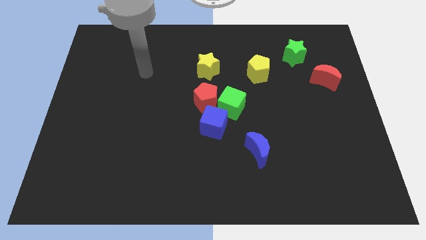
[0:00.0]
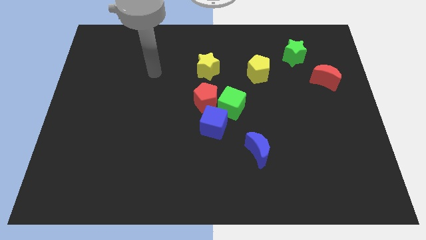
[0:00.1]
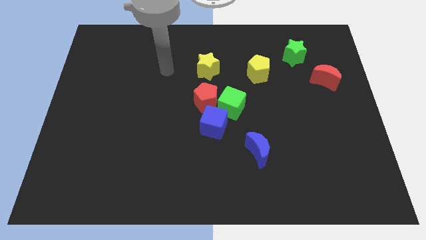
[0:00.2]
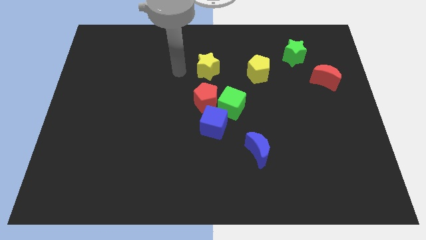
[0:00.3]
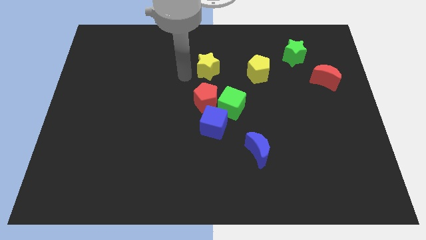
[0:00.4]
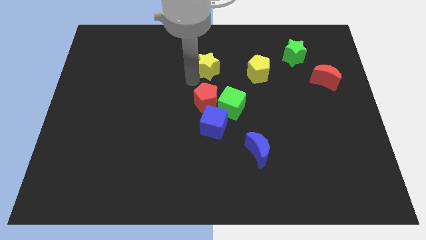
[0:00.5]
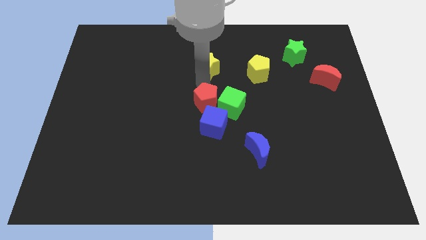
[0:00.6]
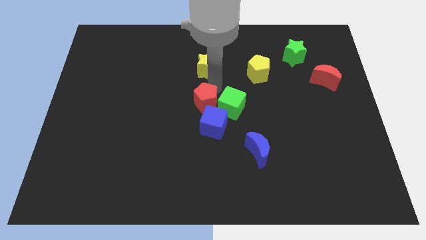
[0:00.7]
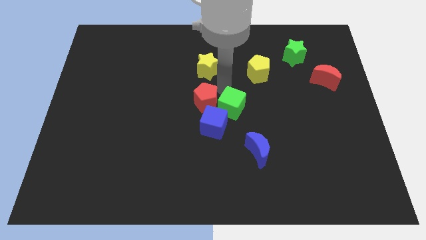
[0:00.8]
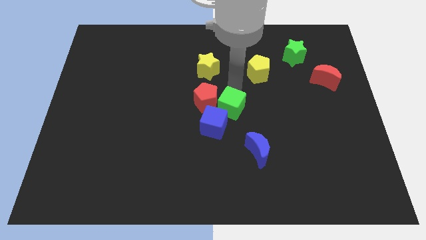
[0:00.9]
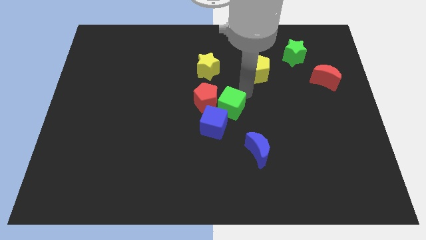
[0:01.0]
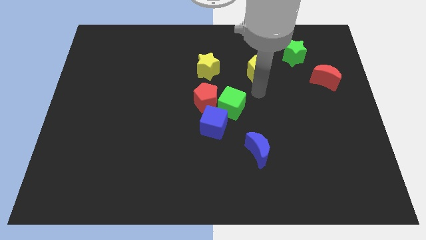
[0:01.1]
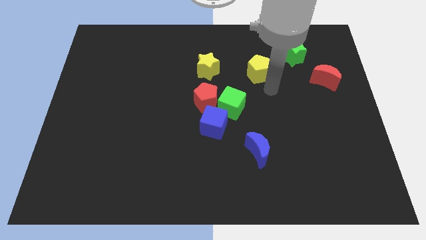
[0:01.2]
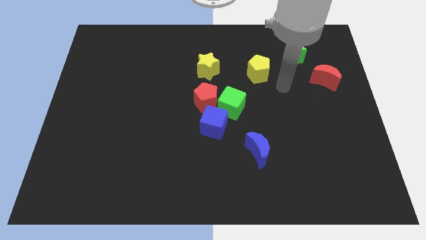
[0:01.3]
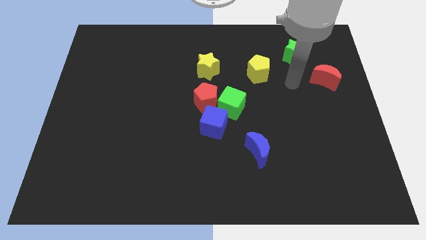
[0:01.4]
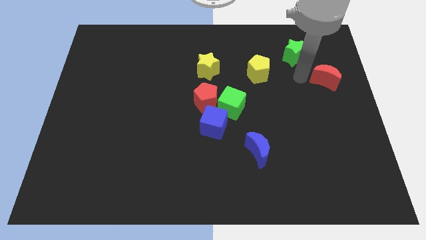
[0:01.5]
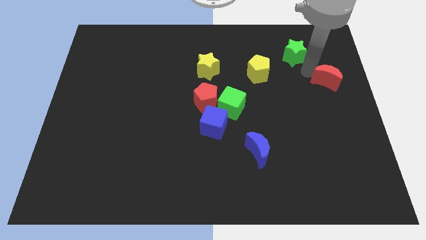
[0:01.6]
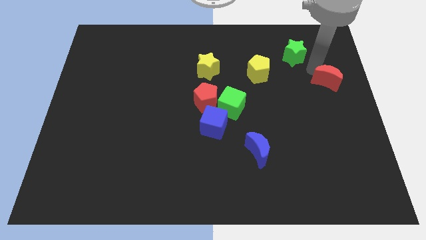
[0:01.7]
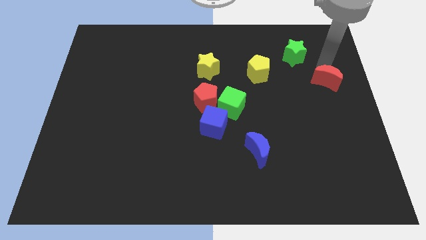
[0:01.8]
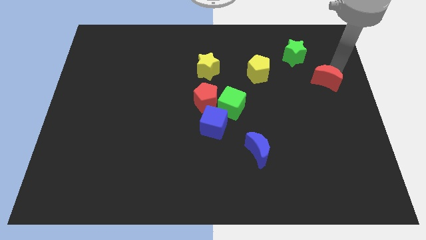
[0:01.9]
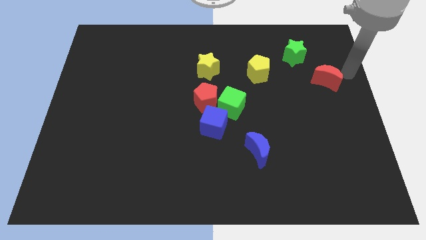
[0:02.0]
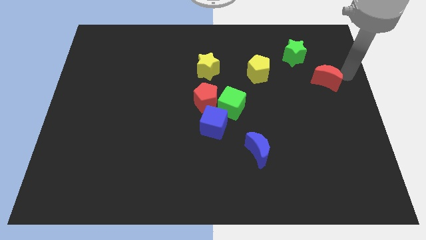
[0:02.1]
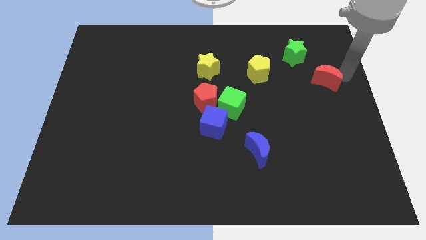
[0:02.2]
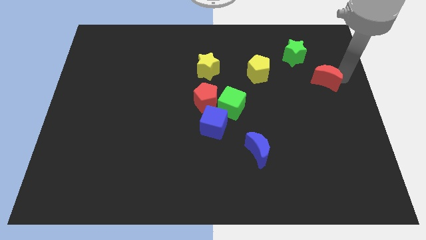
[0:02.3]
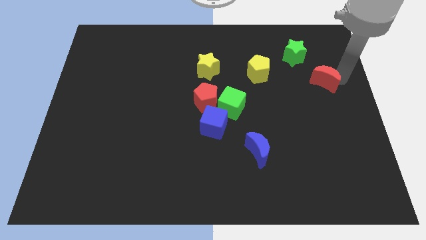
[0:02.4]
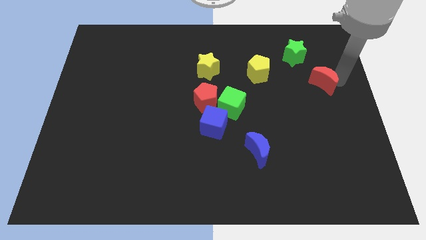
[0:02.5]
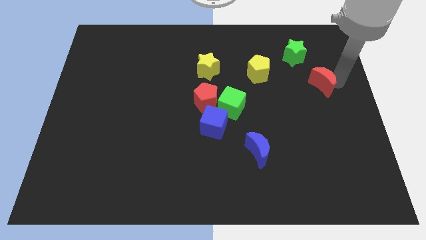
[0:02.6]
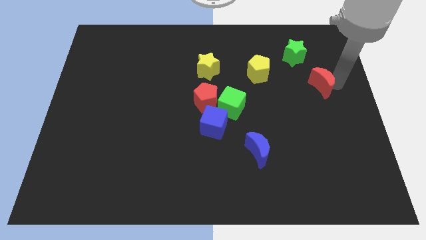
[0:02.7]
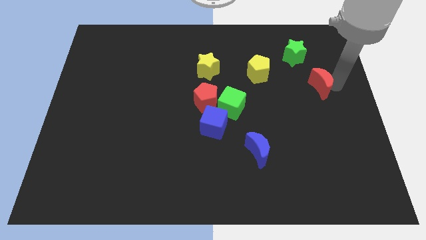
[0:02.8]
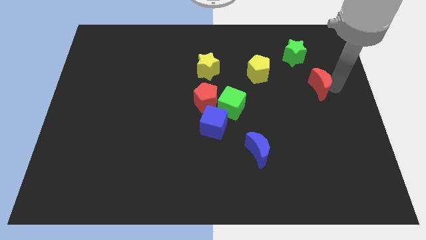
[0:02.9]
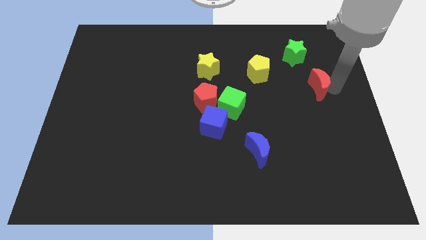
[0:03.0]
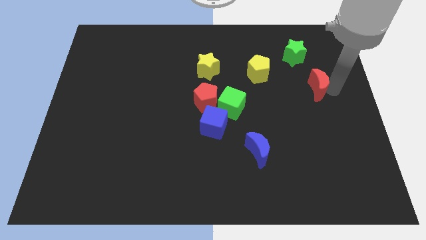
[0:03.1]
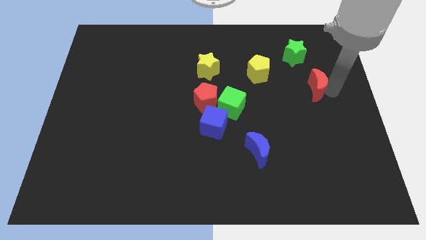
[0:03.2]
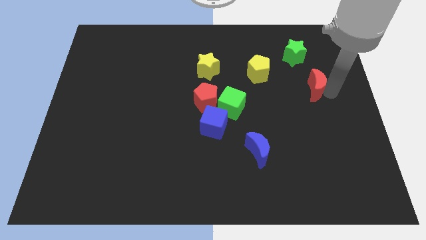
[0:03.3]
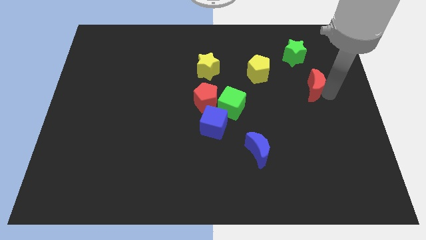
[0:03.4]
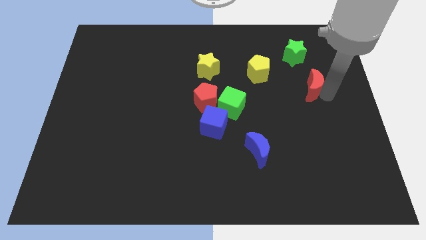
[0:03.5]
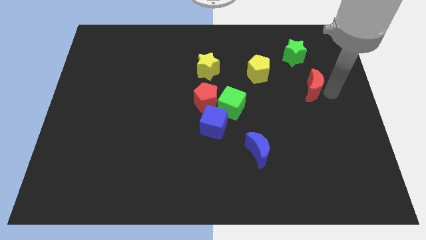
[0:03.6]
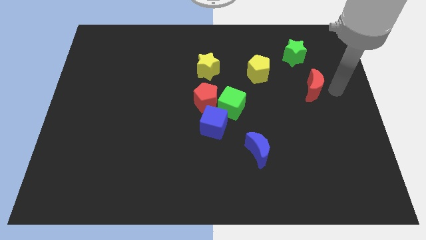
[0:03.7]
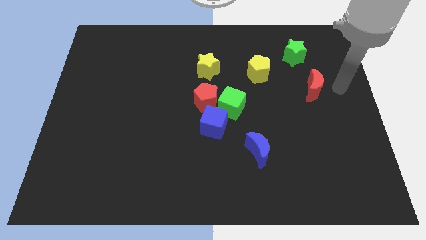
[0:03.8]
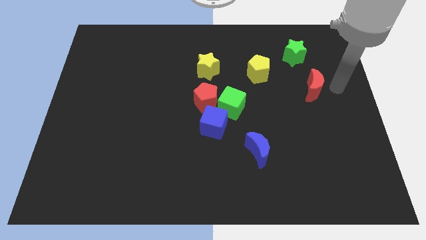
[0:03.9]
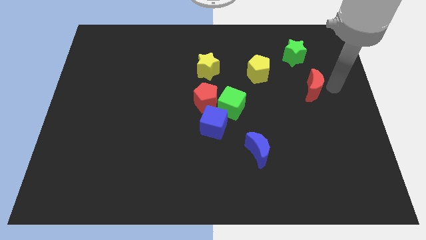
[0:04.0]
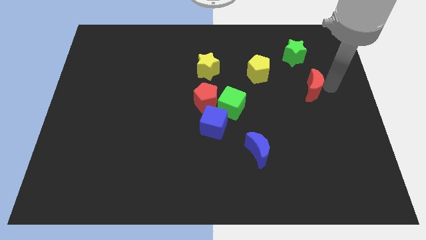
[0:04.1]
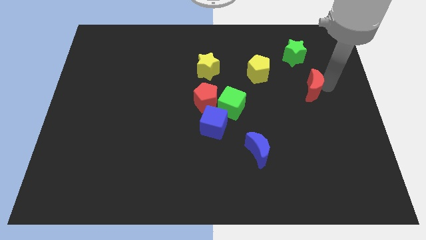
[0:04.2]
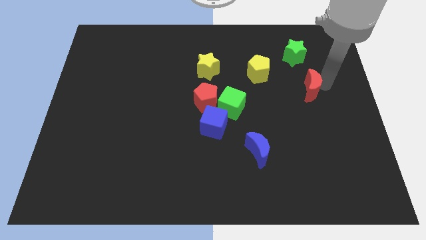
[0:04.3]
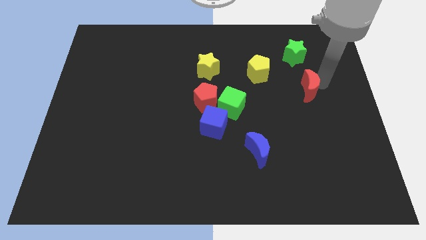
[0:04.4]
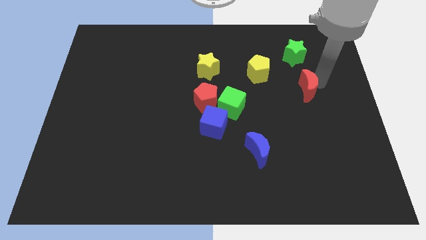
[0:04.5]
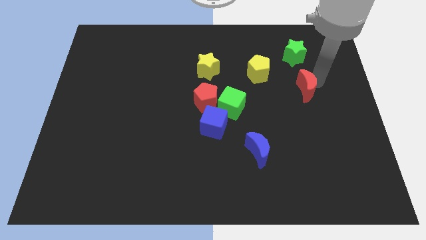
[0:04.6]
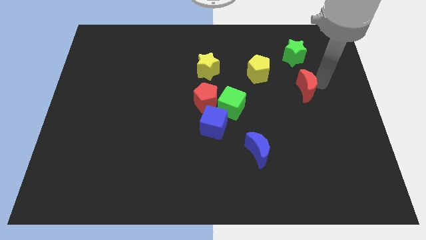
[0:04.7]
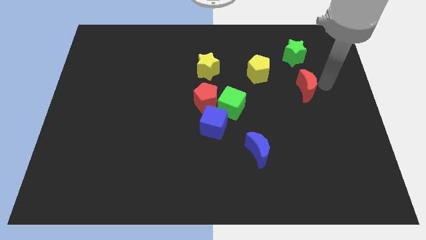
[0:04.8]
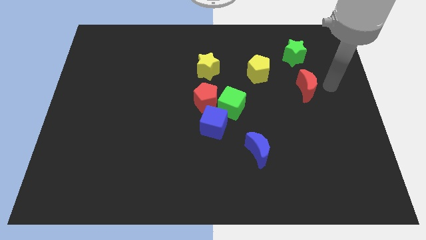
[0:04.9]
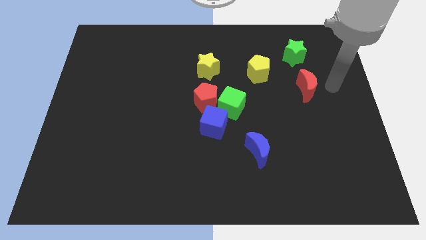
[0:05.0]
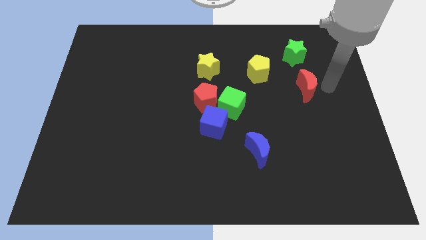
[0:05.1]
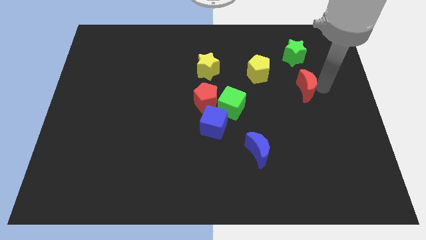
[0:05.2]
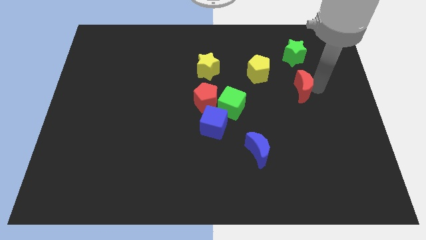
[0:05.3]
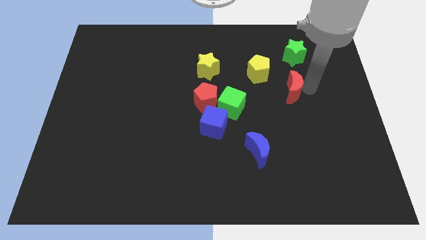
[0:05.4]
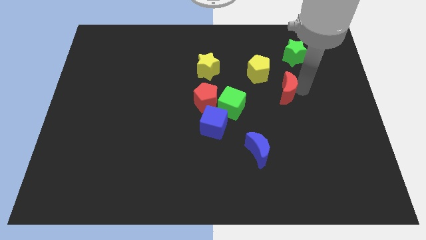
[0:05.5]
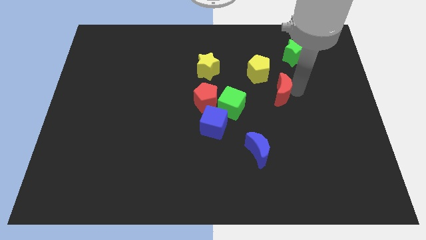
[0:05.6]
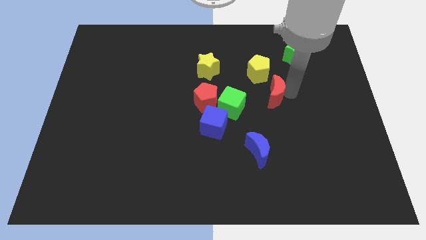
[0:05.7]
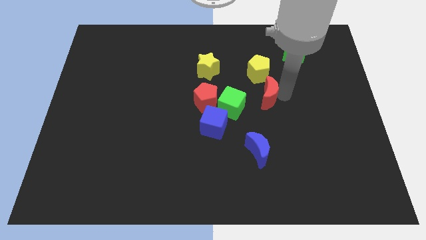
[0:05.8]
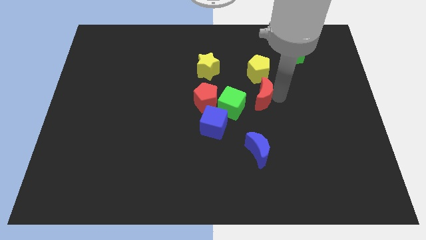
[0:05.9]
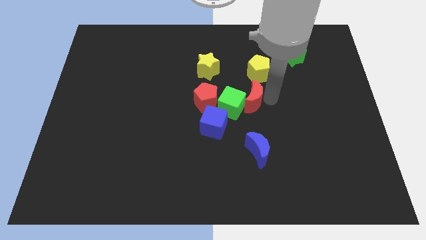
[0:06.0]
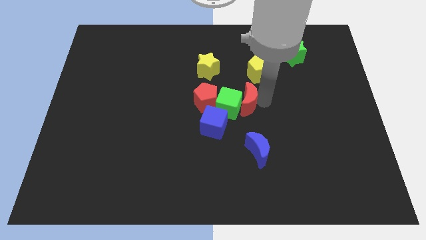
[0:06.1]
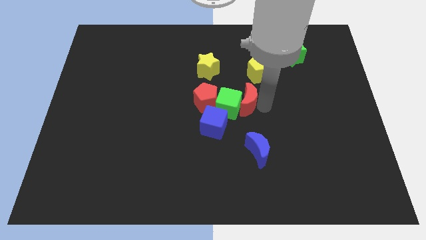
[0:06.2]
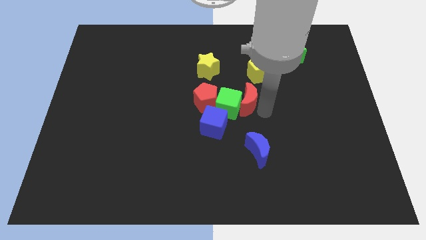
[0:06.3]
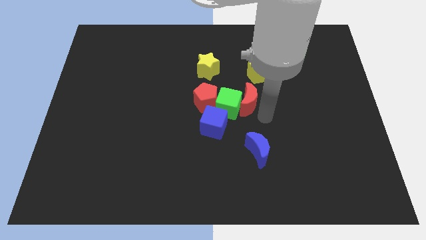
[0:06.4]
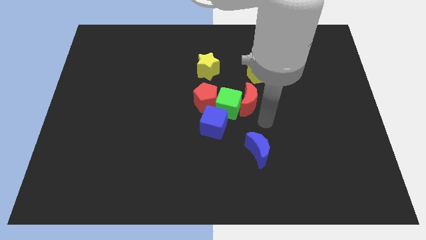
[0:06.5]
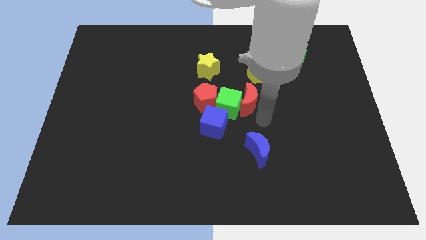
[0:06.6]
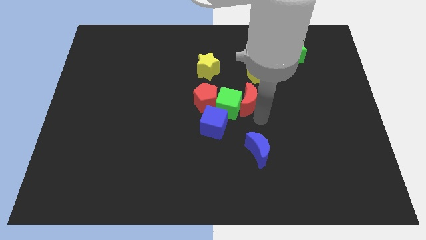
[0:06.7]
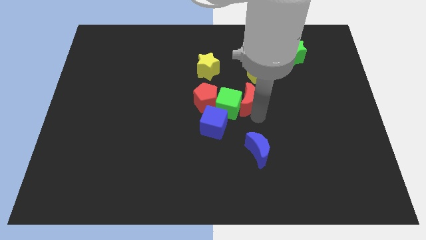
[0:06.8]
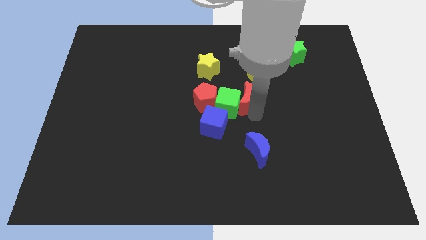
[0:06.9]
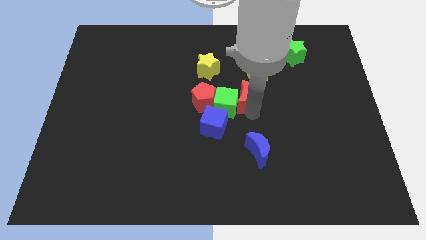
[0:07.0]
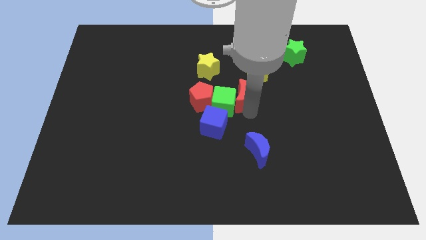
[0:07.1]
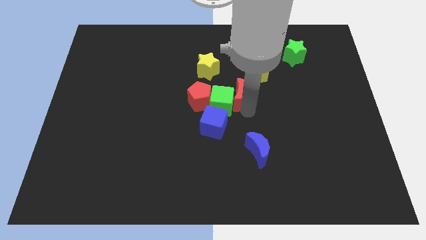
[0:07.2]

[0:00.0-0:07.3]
slide the red moon to the left

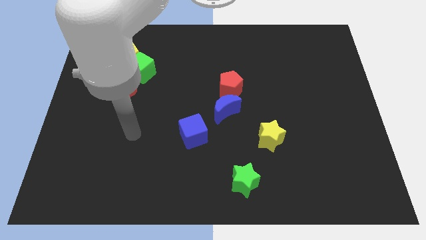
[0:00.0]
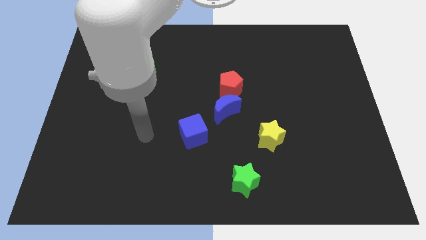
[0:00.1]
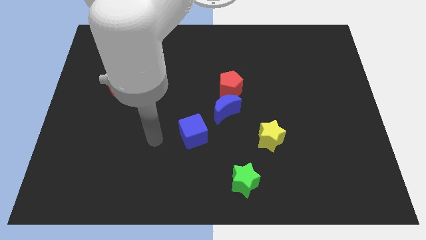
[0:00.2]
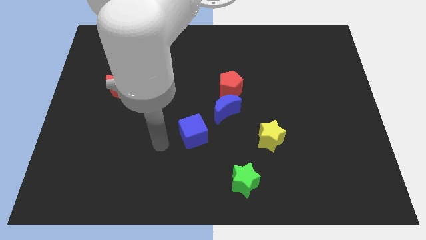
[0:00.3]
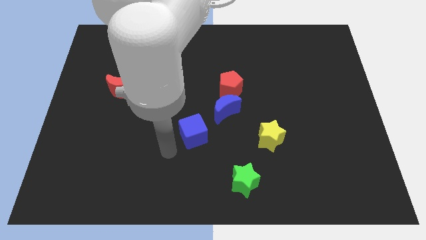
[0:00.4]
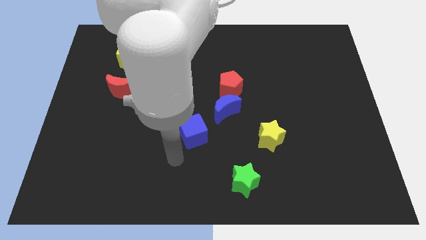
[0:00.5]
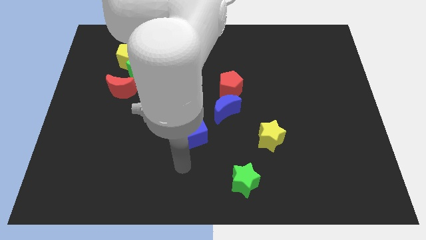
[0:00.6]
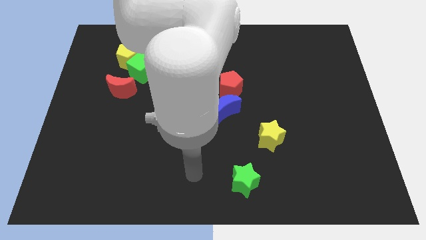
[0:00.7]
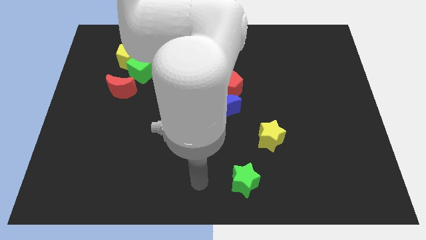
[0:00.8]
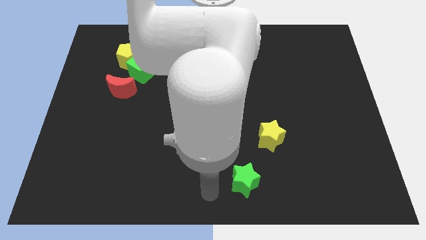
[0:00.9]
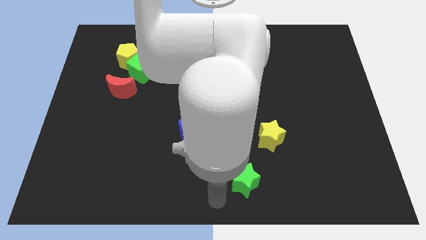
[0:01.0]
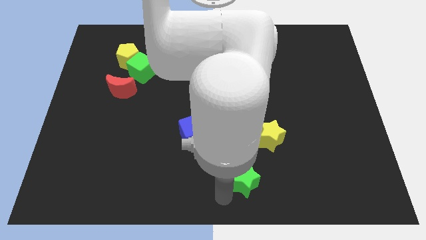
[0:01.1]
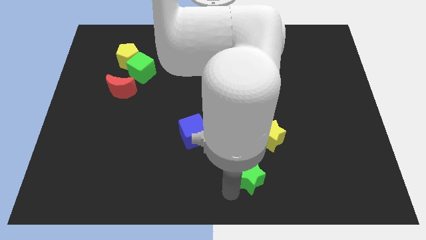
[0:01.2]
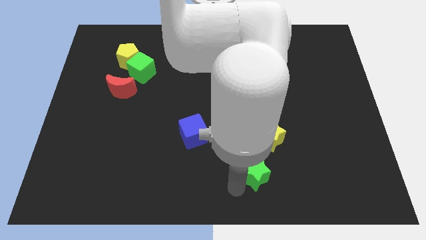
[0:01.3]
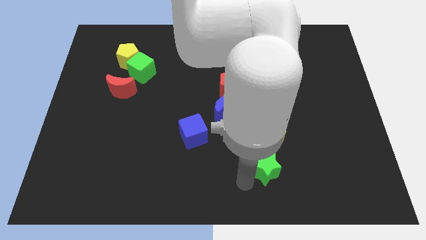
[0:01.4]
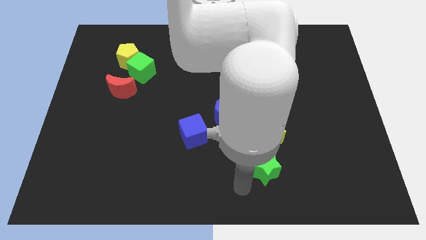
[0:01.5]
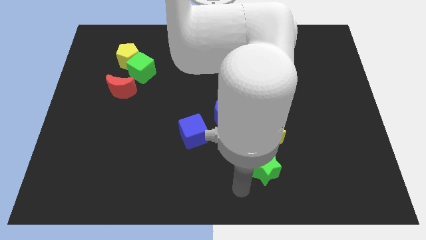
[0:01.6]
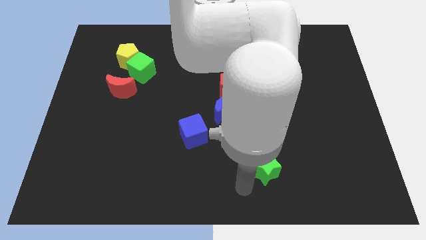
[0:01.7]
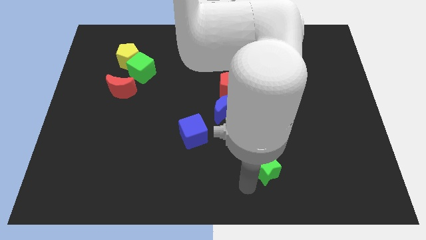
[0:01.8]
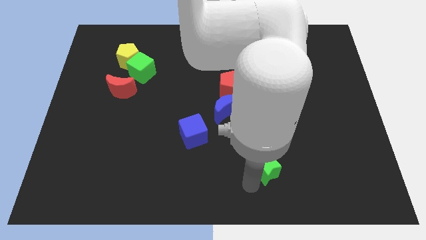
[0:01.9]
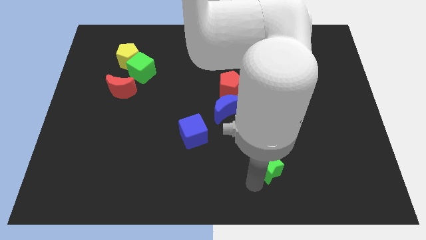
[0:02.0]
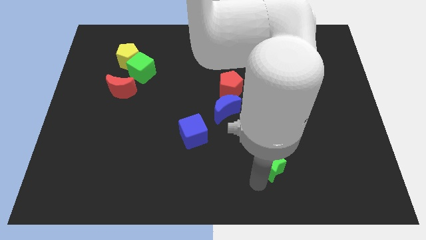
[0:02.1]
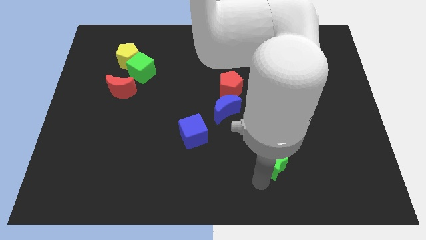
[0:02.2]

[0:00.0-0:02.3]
push the green star somewhat upwards and to the right diagonally
